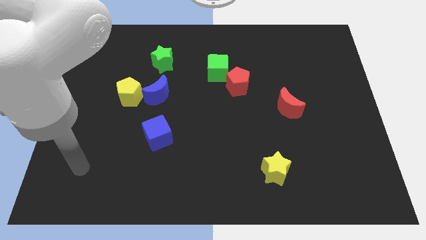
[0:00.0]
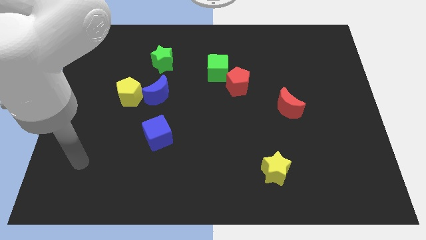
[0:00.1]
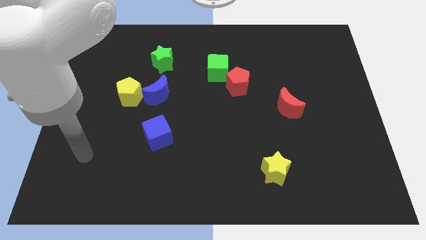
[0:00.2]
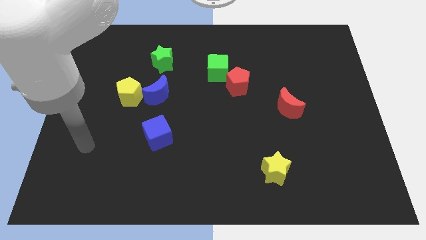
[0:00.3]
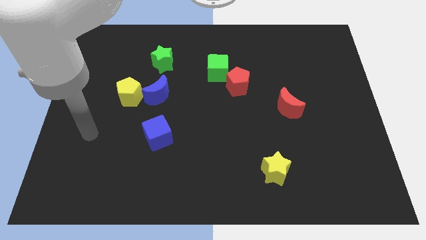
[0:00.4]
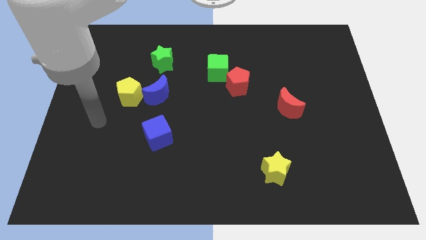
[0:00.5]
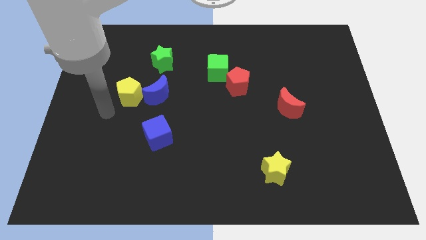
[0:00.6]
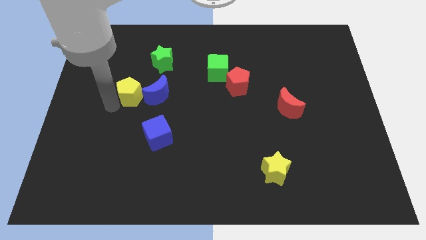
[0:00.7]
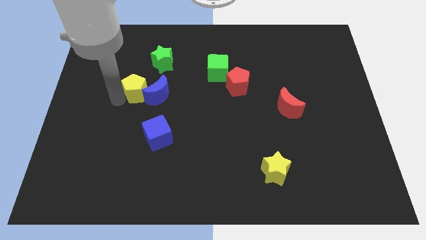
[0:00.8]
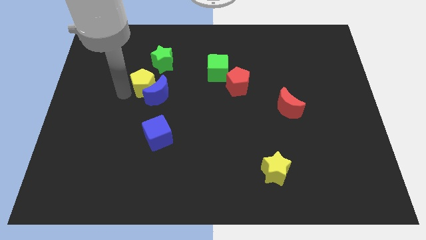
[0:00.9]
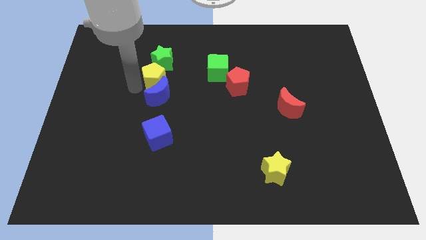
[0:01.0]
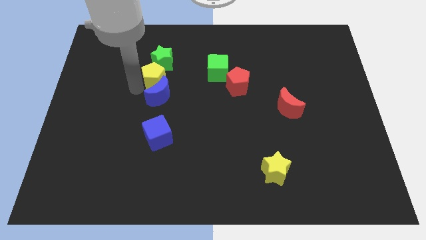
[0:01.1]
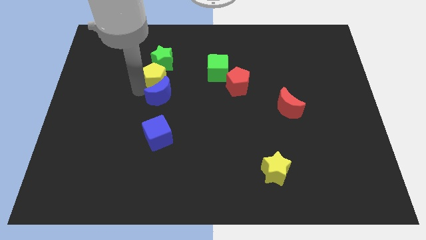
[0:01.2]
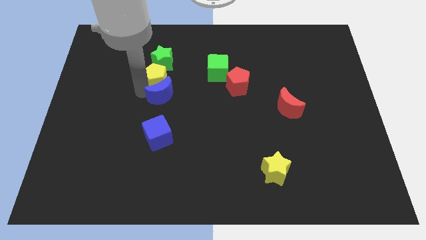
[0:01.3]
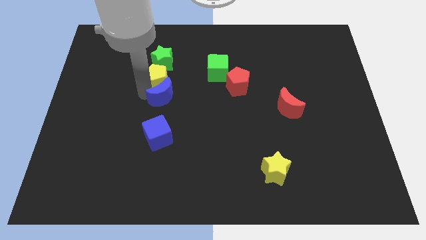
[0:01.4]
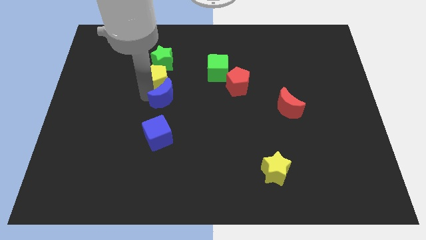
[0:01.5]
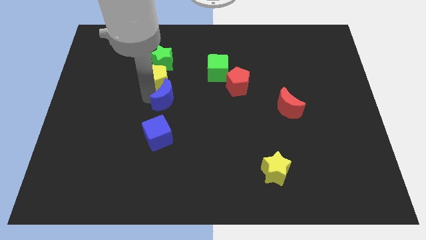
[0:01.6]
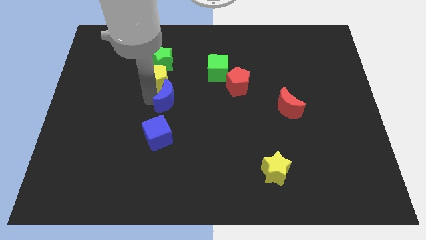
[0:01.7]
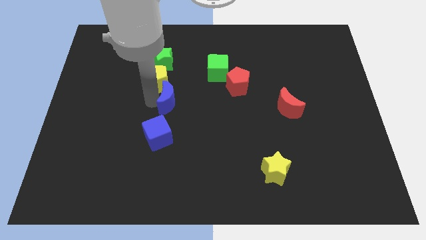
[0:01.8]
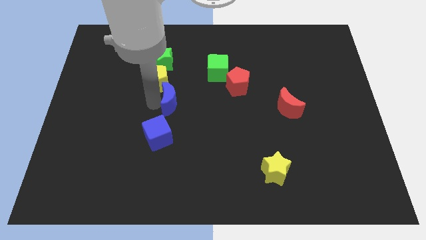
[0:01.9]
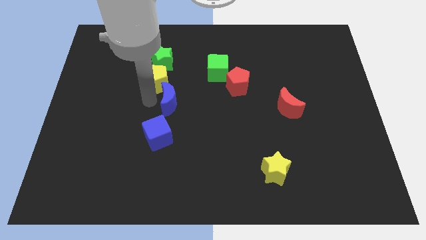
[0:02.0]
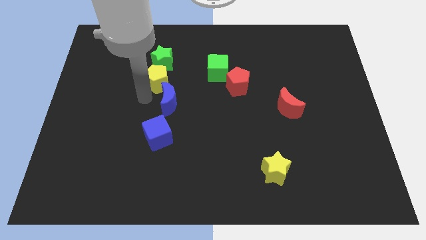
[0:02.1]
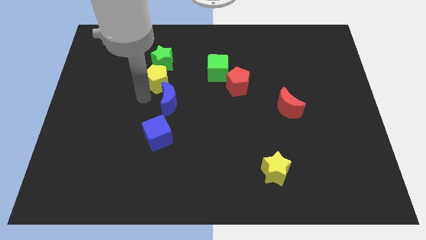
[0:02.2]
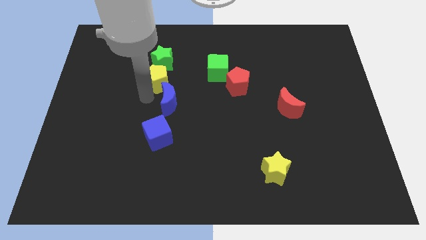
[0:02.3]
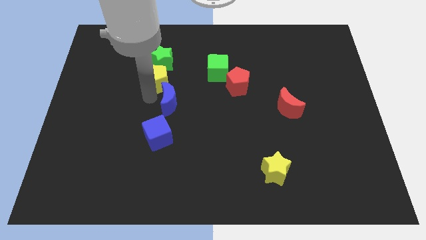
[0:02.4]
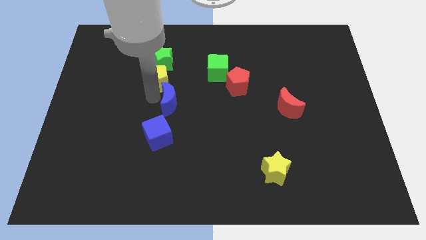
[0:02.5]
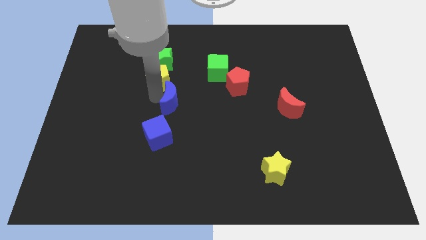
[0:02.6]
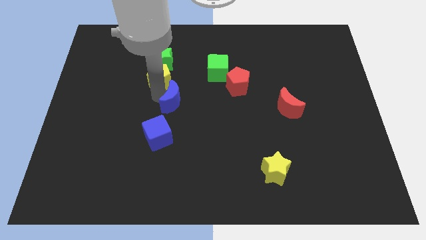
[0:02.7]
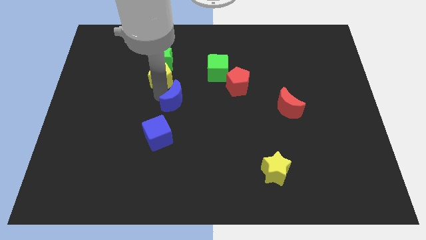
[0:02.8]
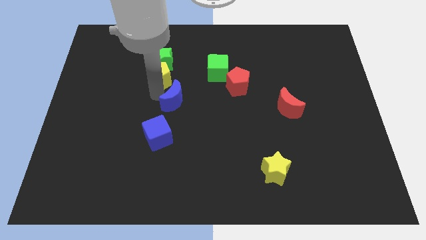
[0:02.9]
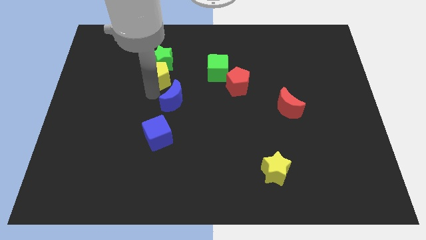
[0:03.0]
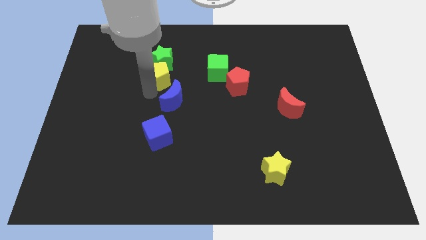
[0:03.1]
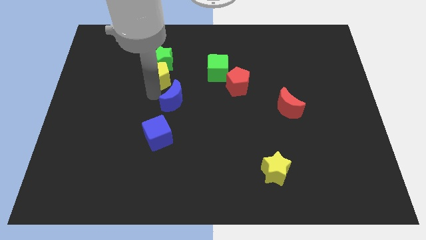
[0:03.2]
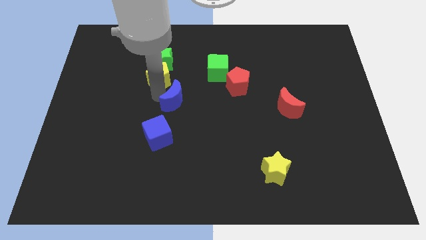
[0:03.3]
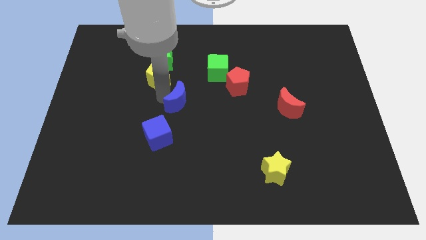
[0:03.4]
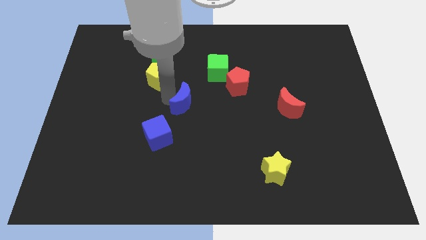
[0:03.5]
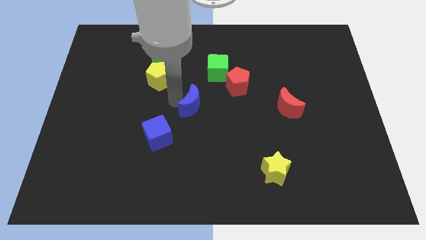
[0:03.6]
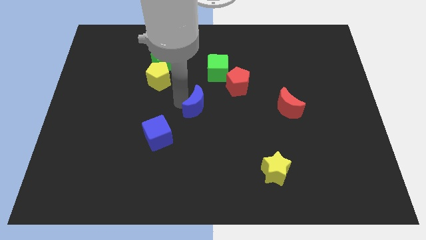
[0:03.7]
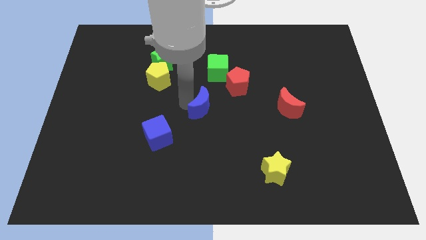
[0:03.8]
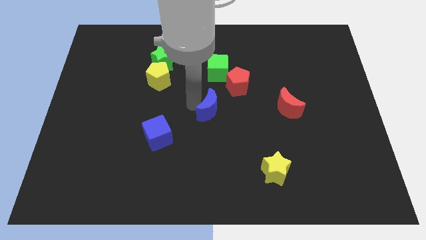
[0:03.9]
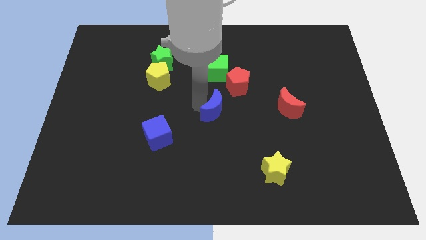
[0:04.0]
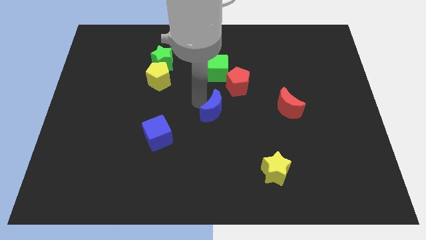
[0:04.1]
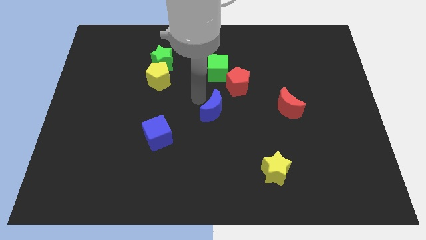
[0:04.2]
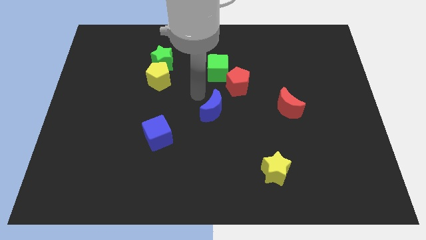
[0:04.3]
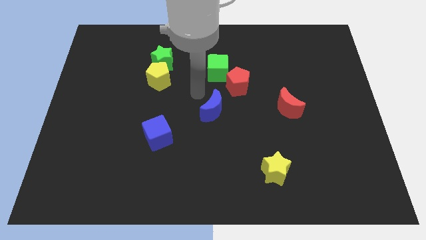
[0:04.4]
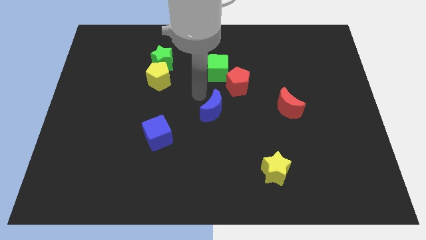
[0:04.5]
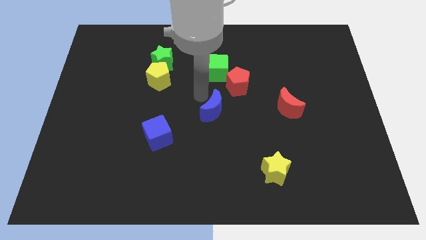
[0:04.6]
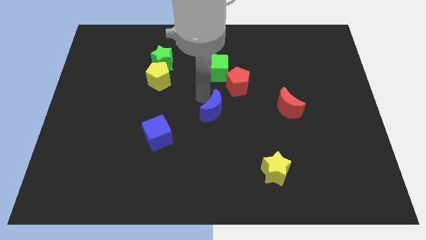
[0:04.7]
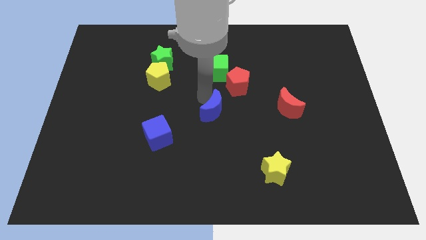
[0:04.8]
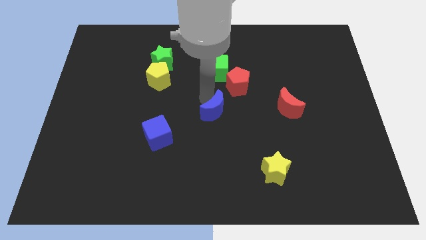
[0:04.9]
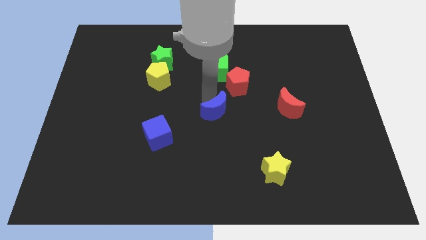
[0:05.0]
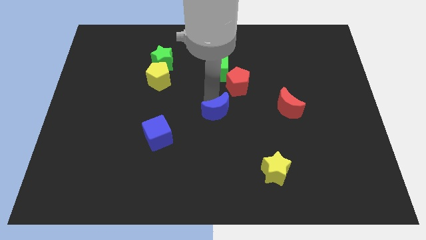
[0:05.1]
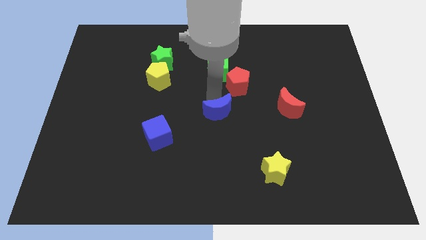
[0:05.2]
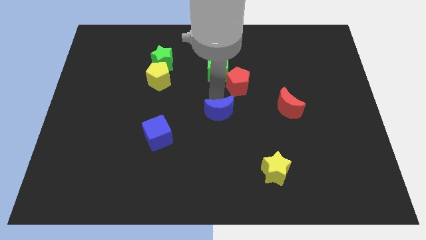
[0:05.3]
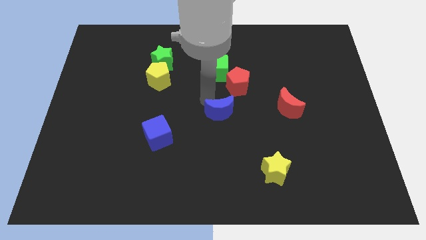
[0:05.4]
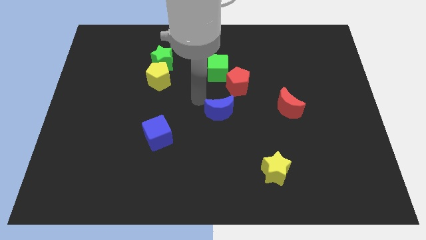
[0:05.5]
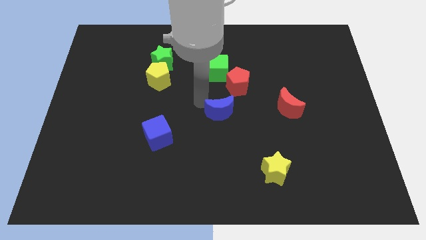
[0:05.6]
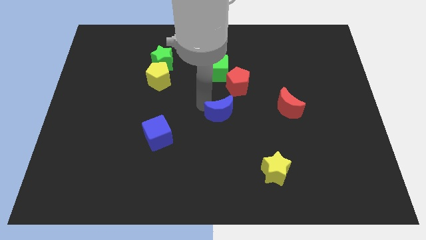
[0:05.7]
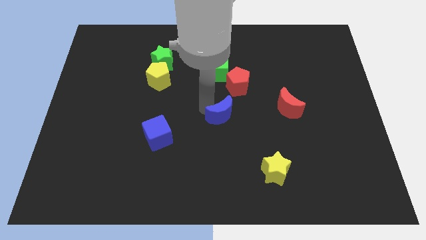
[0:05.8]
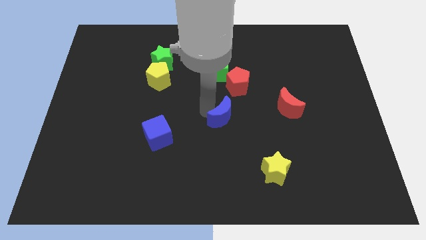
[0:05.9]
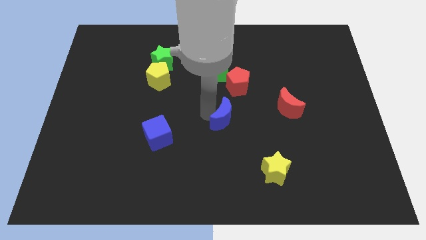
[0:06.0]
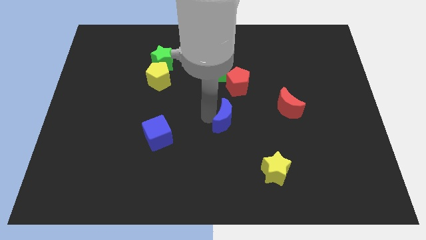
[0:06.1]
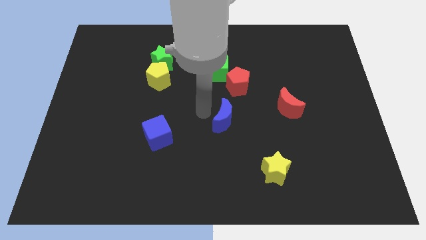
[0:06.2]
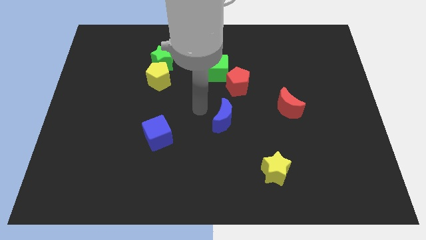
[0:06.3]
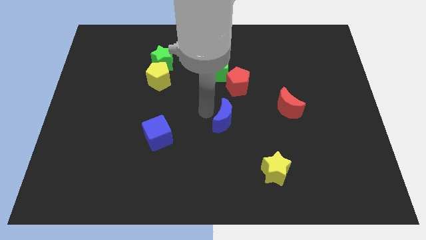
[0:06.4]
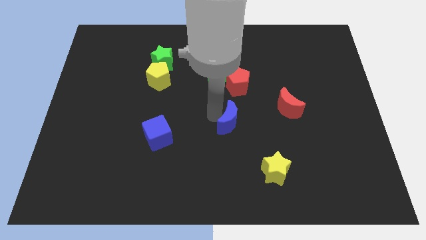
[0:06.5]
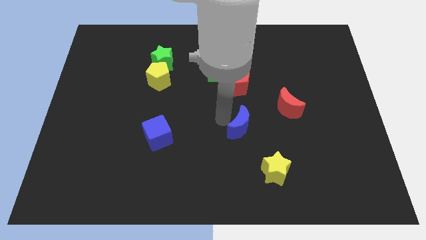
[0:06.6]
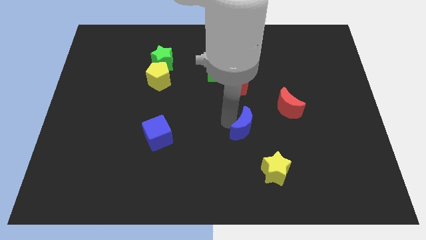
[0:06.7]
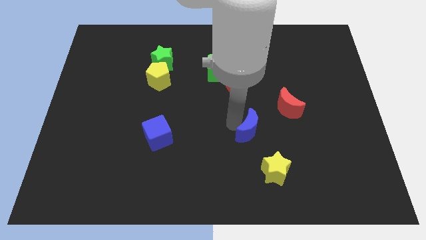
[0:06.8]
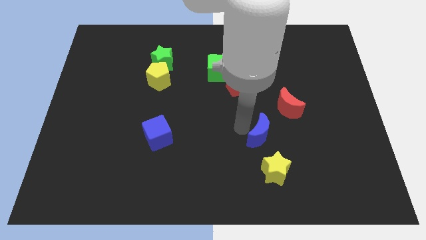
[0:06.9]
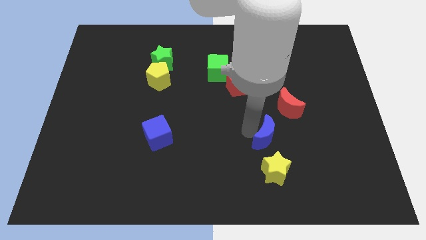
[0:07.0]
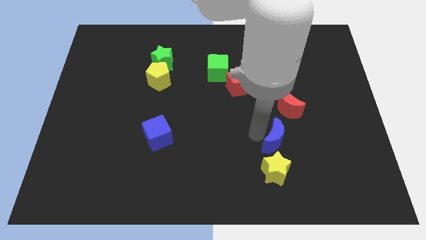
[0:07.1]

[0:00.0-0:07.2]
slide the blue moon to the bottom of the red moon
